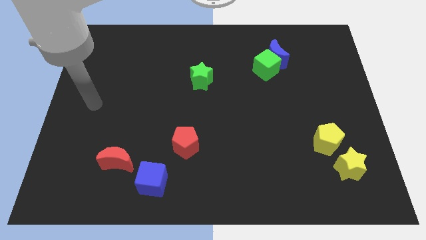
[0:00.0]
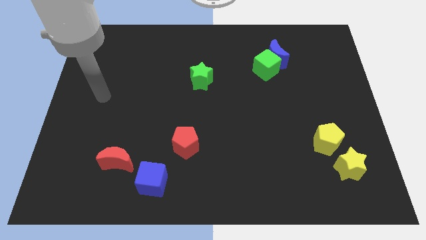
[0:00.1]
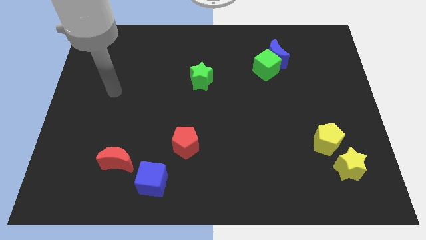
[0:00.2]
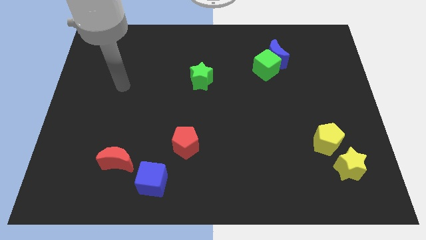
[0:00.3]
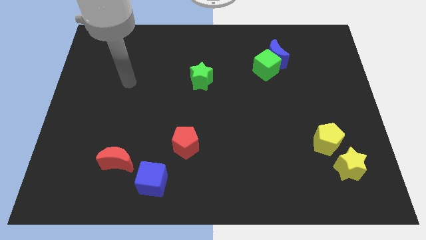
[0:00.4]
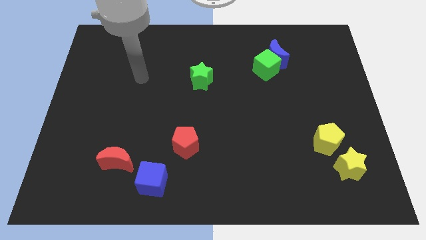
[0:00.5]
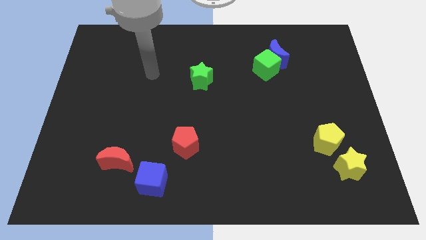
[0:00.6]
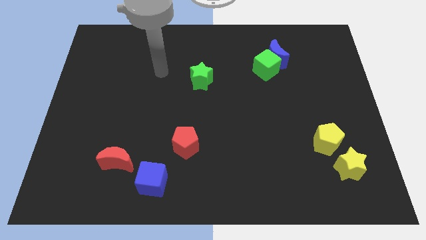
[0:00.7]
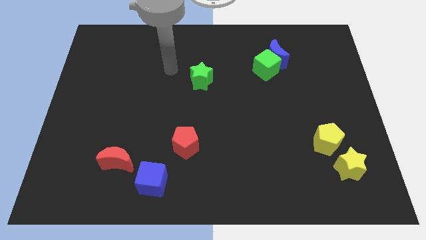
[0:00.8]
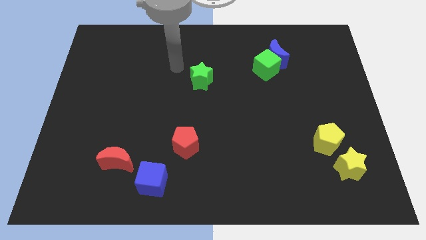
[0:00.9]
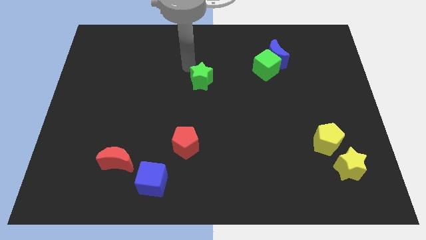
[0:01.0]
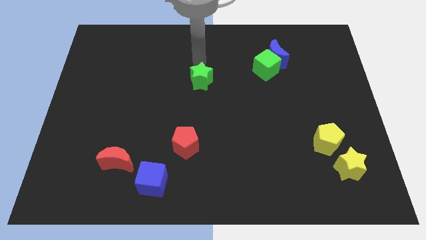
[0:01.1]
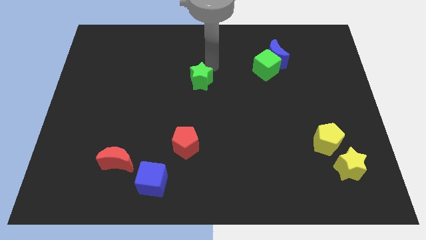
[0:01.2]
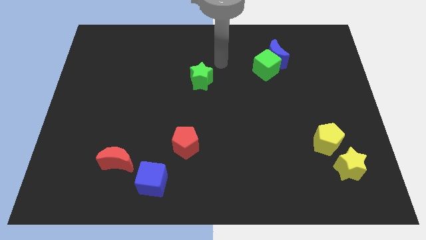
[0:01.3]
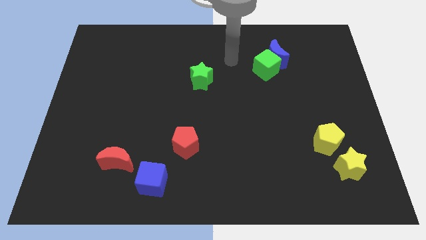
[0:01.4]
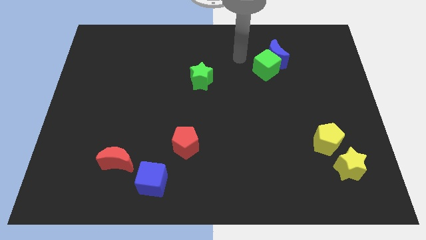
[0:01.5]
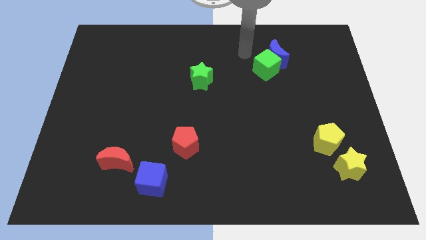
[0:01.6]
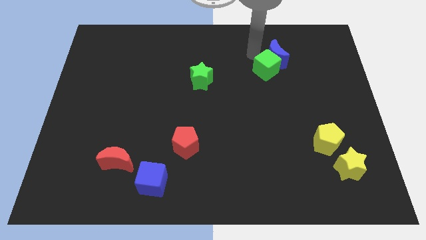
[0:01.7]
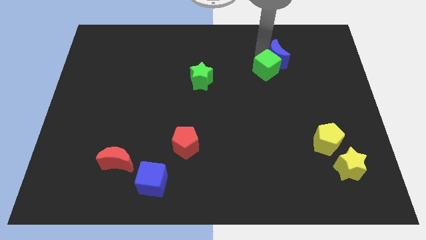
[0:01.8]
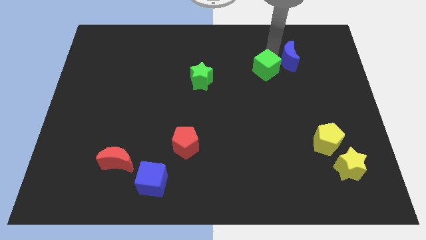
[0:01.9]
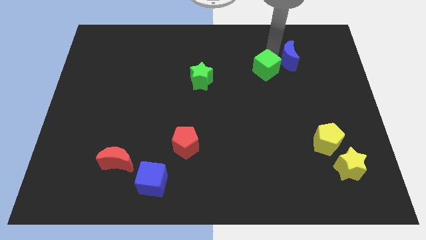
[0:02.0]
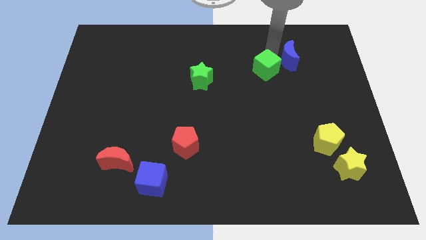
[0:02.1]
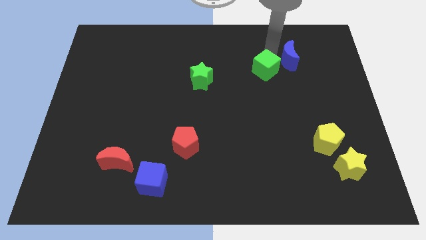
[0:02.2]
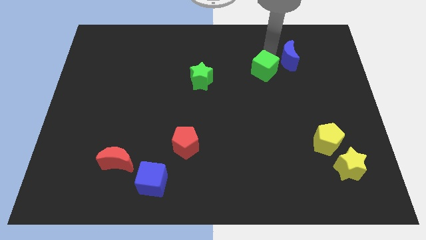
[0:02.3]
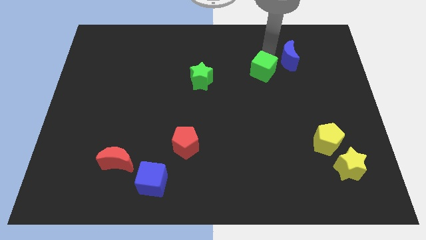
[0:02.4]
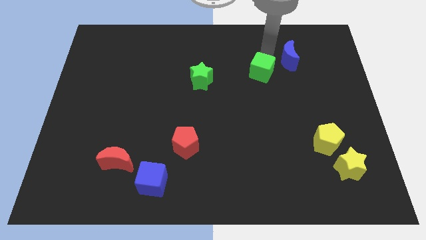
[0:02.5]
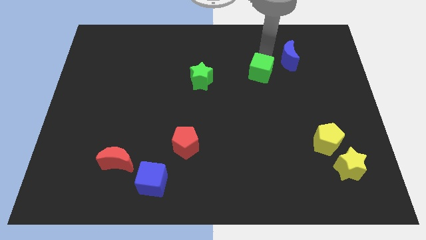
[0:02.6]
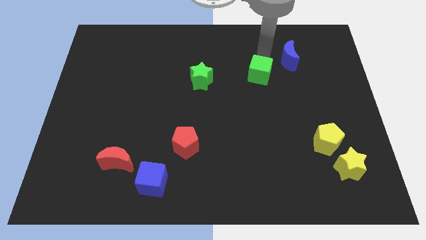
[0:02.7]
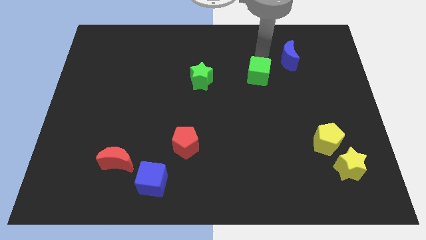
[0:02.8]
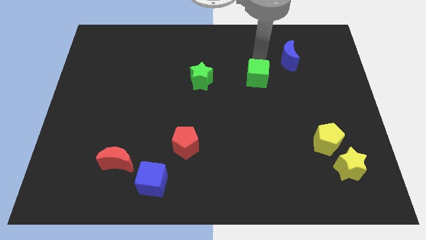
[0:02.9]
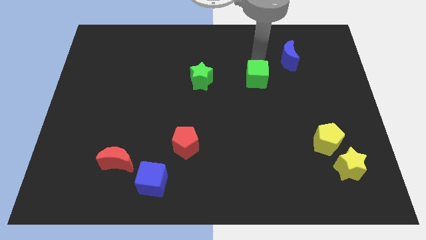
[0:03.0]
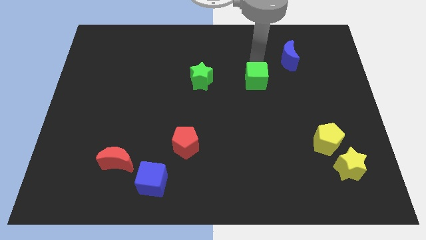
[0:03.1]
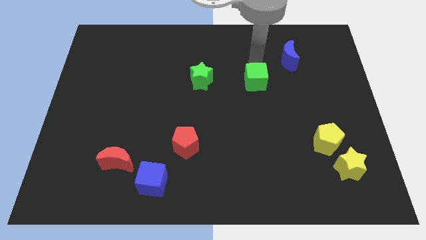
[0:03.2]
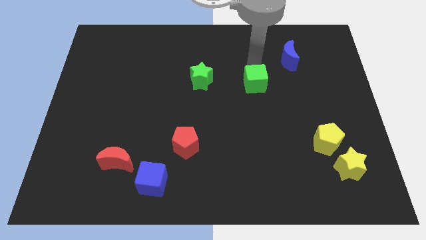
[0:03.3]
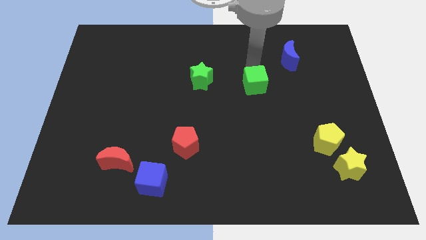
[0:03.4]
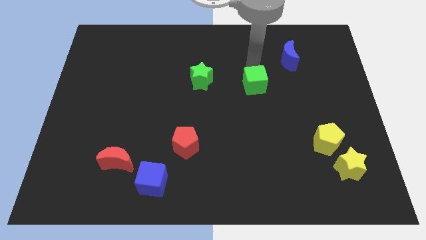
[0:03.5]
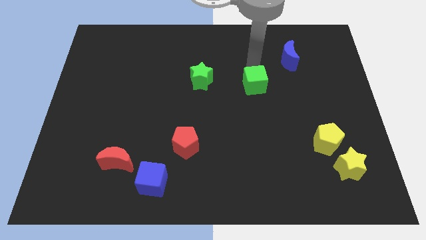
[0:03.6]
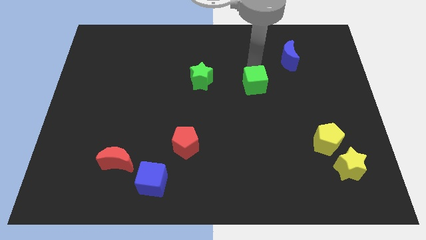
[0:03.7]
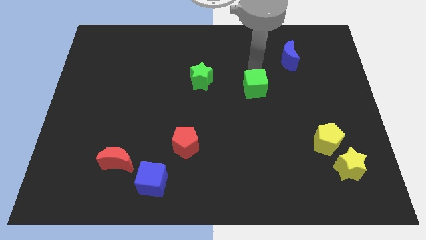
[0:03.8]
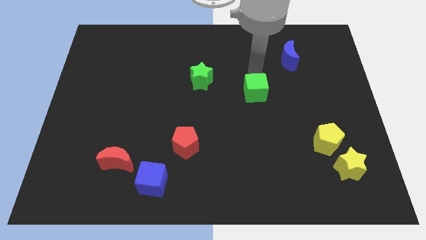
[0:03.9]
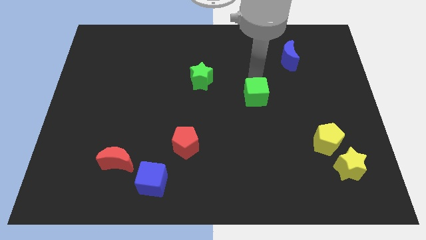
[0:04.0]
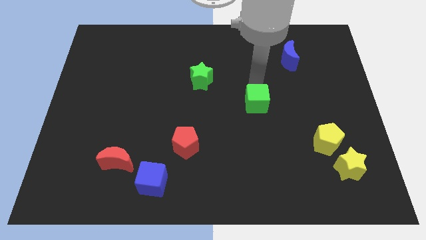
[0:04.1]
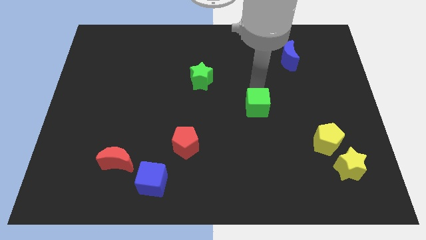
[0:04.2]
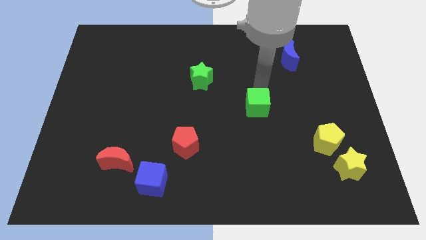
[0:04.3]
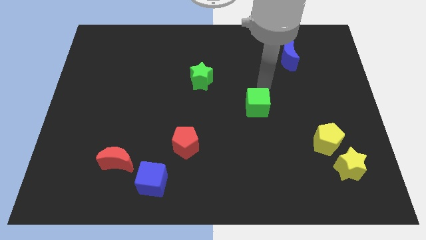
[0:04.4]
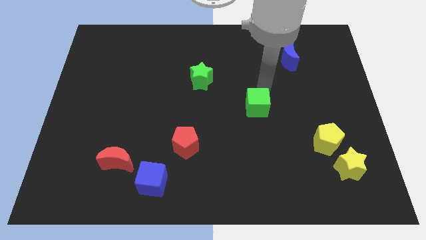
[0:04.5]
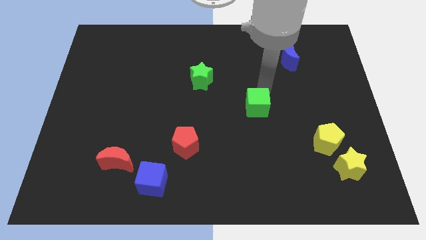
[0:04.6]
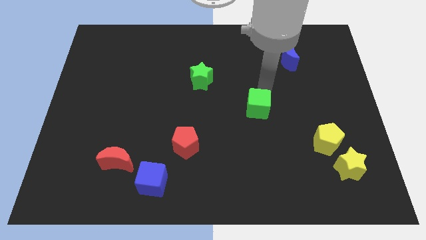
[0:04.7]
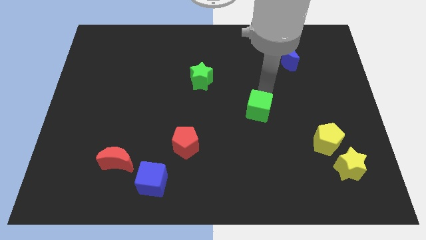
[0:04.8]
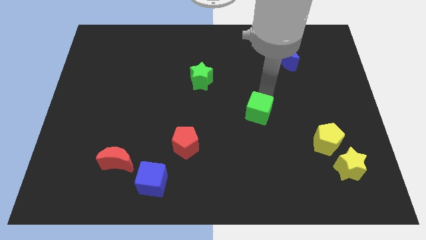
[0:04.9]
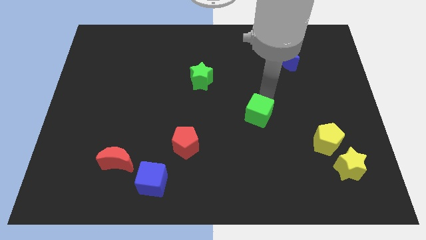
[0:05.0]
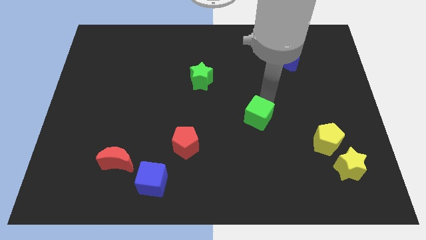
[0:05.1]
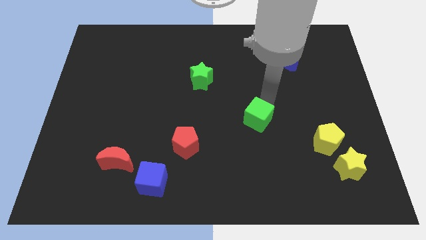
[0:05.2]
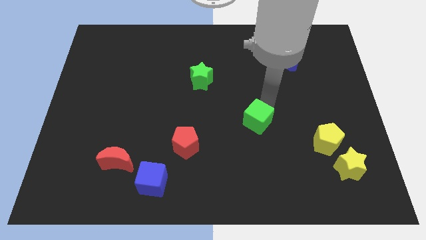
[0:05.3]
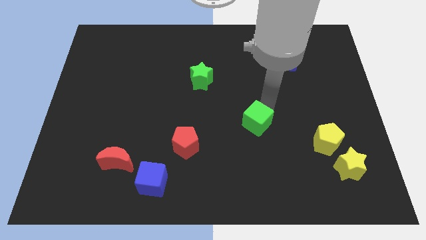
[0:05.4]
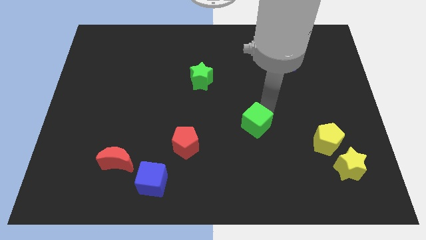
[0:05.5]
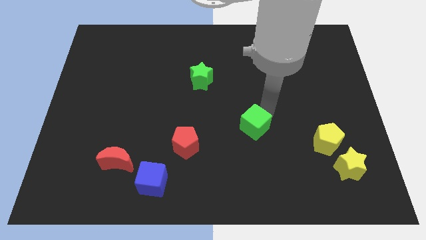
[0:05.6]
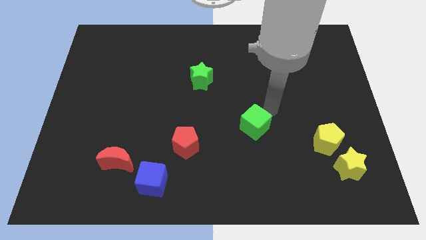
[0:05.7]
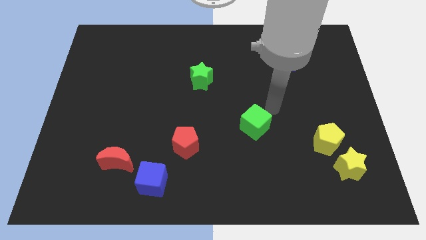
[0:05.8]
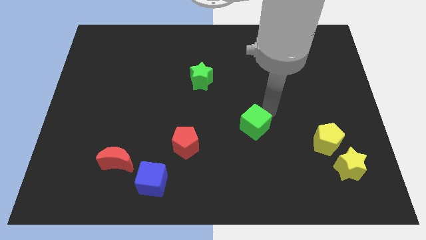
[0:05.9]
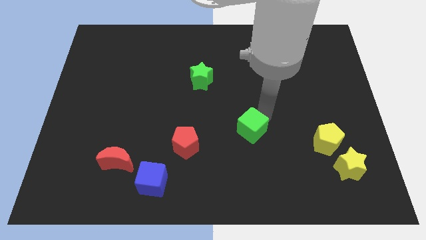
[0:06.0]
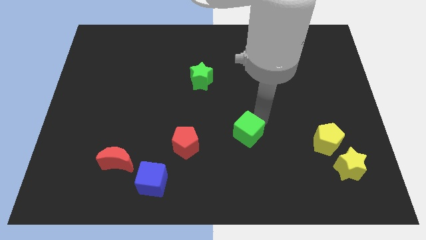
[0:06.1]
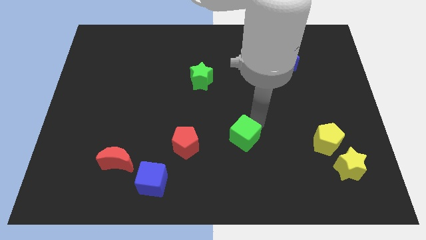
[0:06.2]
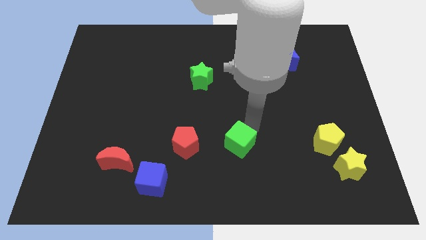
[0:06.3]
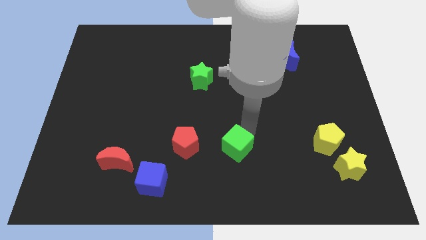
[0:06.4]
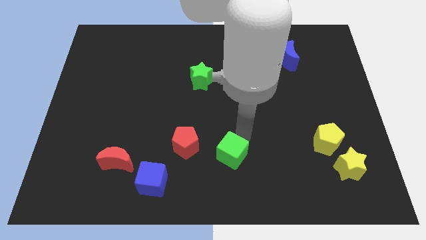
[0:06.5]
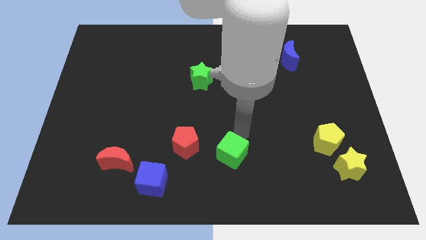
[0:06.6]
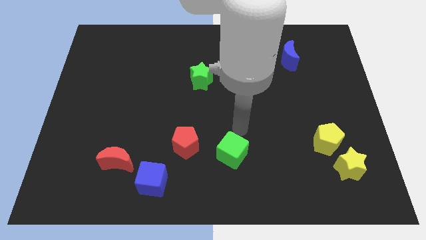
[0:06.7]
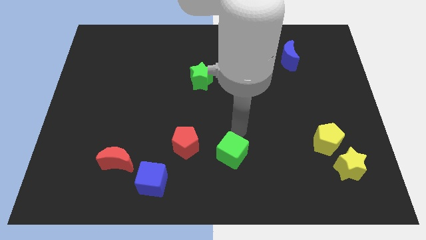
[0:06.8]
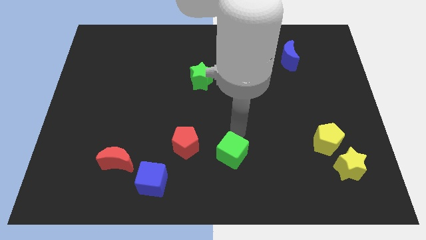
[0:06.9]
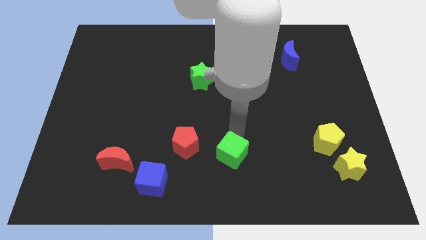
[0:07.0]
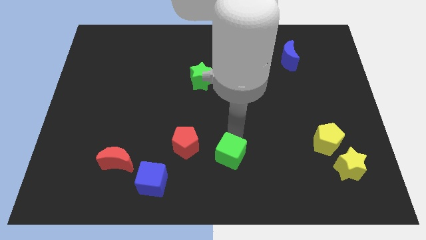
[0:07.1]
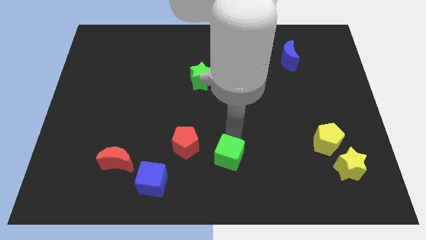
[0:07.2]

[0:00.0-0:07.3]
move the green cube to the bottom
